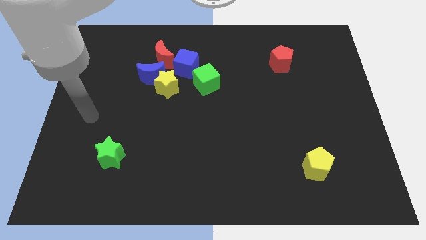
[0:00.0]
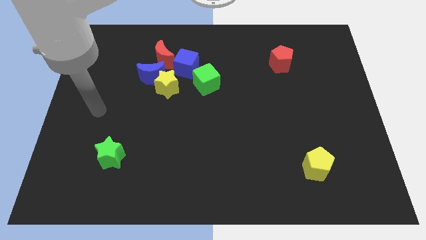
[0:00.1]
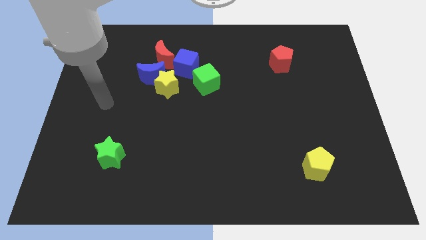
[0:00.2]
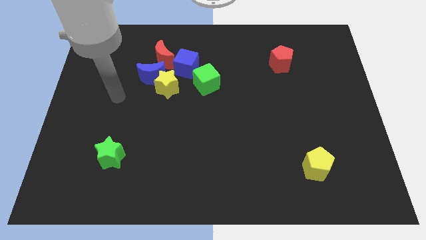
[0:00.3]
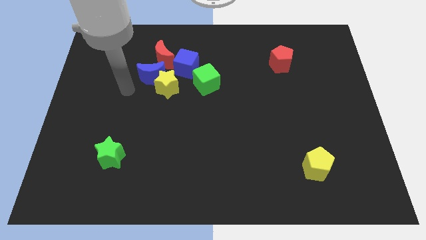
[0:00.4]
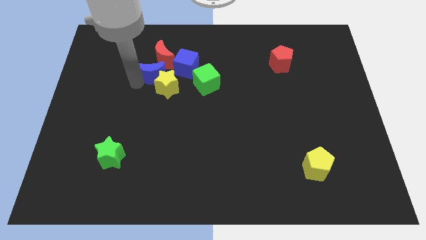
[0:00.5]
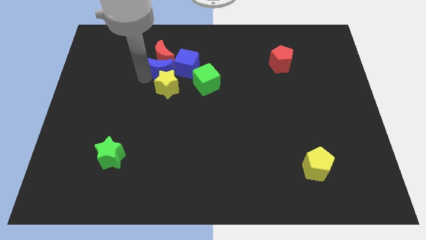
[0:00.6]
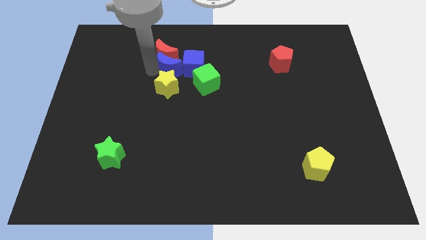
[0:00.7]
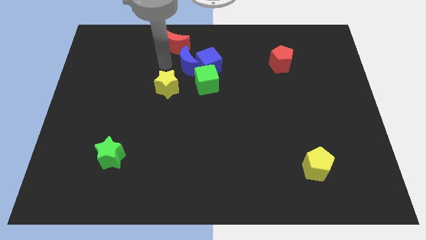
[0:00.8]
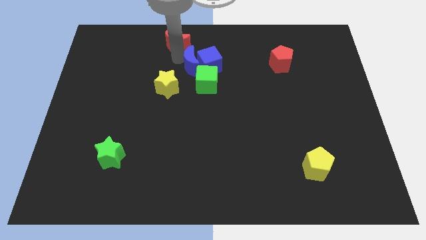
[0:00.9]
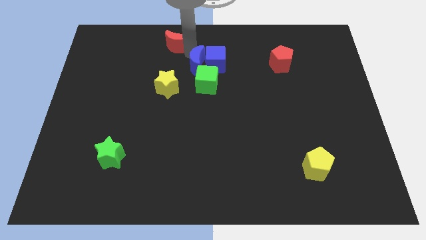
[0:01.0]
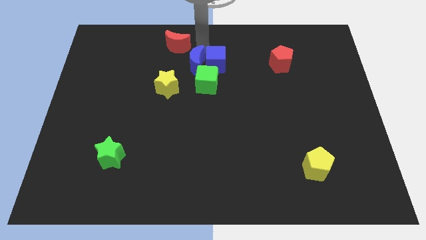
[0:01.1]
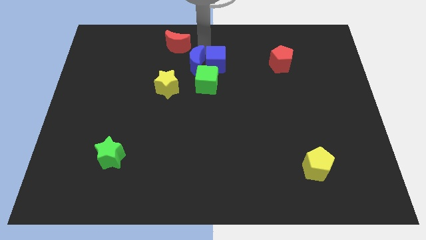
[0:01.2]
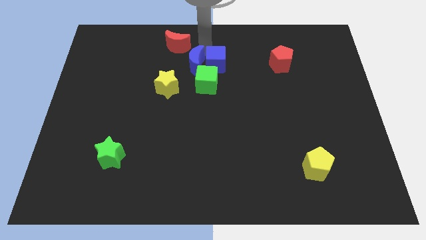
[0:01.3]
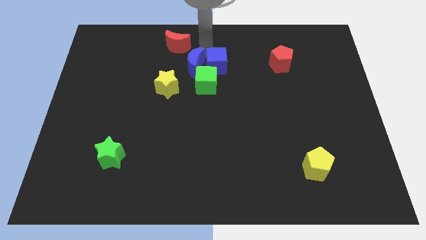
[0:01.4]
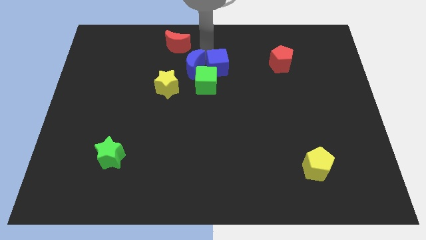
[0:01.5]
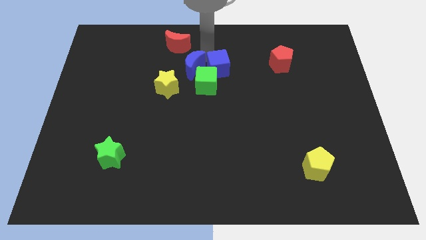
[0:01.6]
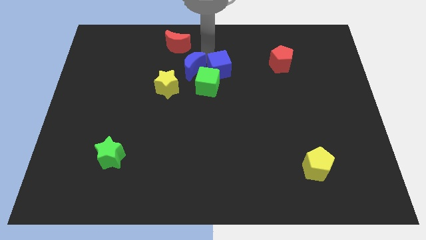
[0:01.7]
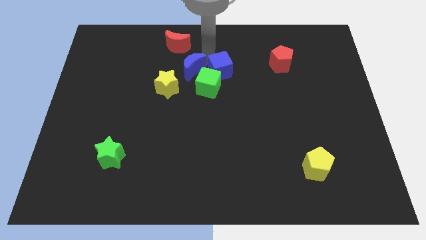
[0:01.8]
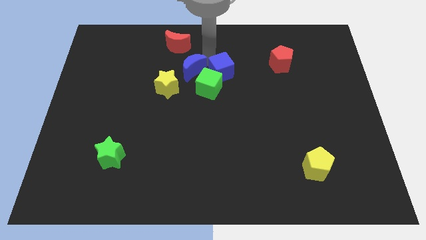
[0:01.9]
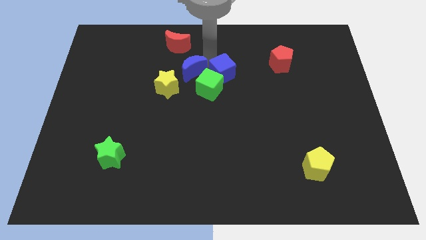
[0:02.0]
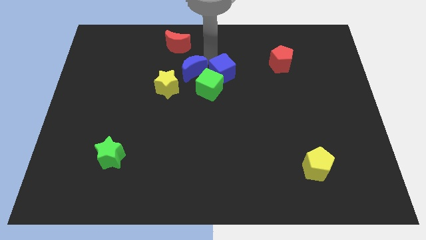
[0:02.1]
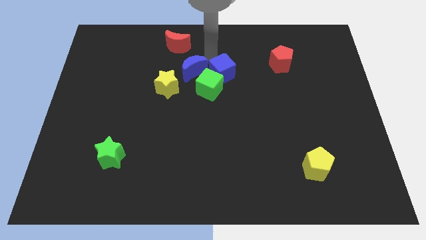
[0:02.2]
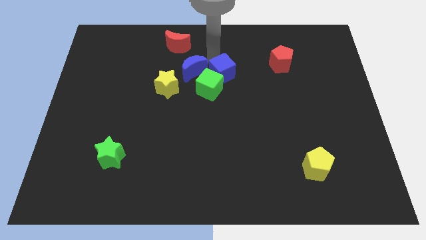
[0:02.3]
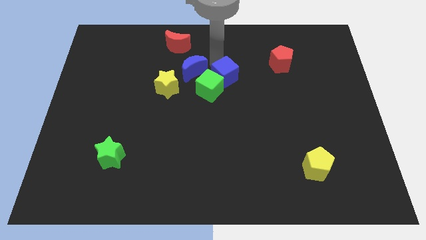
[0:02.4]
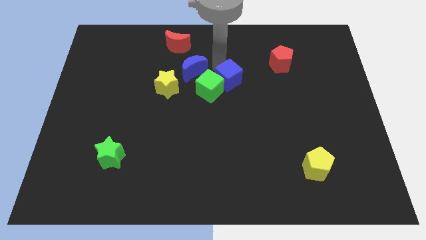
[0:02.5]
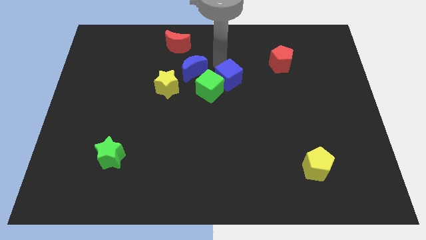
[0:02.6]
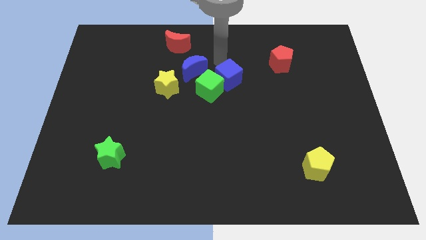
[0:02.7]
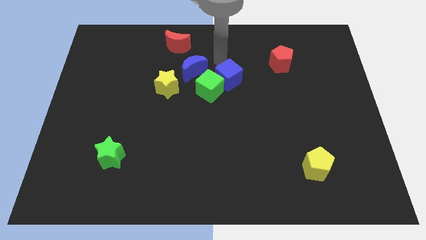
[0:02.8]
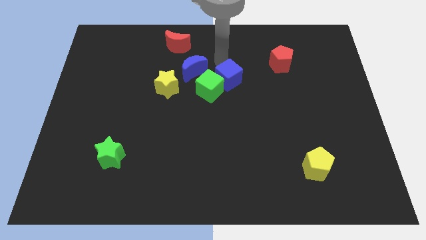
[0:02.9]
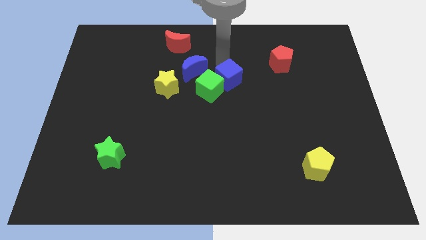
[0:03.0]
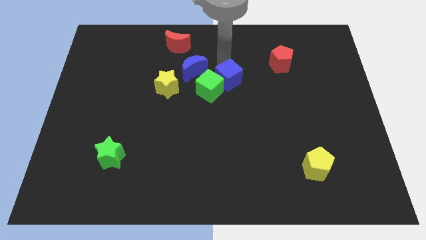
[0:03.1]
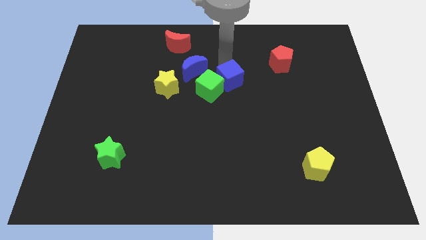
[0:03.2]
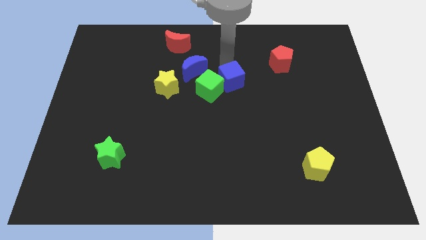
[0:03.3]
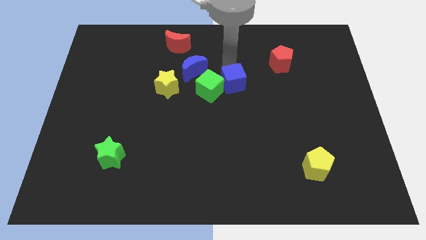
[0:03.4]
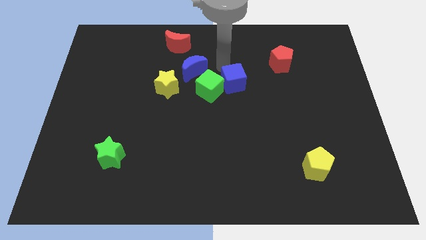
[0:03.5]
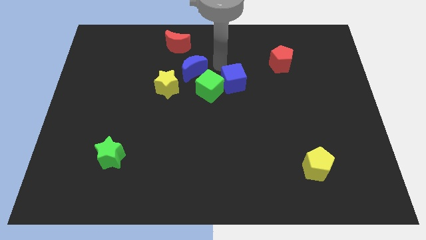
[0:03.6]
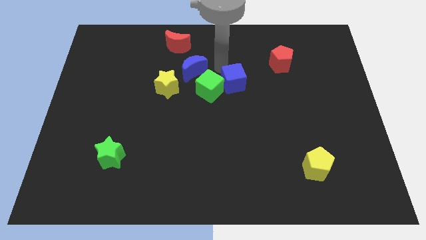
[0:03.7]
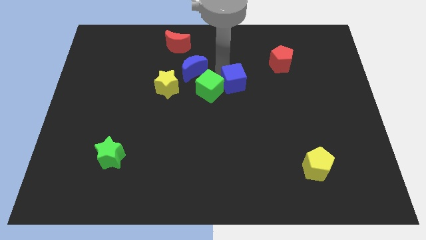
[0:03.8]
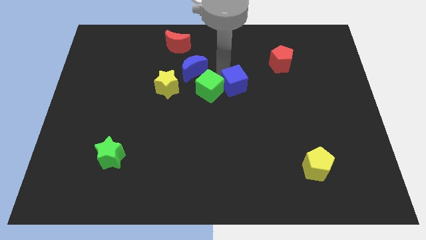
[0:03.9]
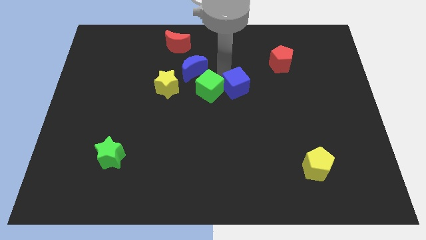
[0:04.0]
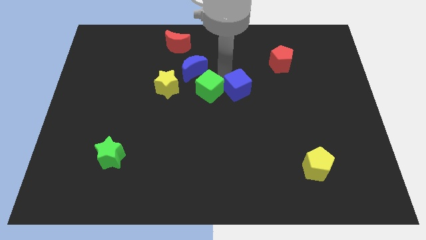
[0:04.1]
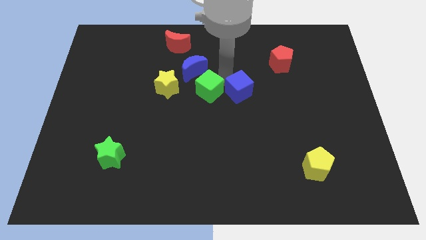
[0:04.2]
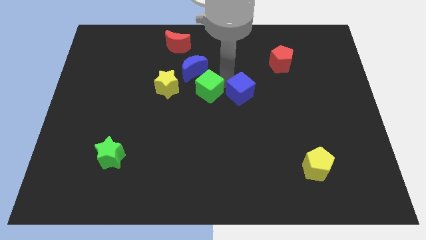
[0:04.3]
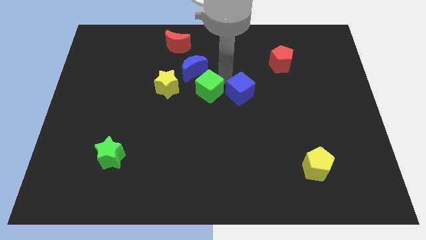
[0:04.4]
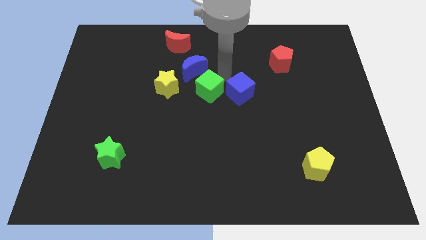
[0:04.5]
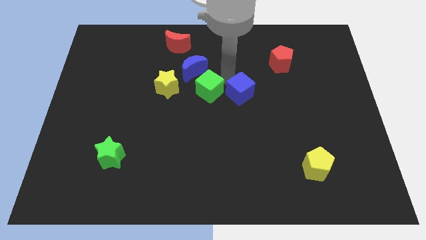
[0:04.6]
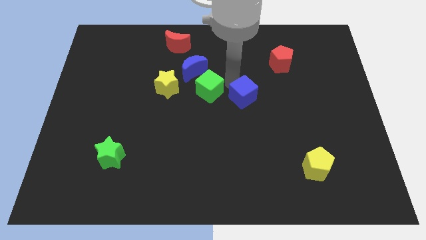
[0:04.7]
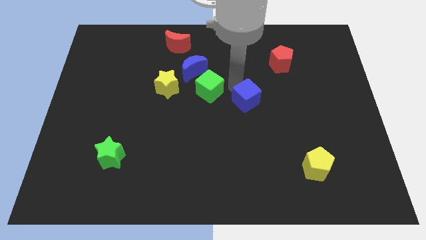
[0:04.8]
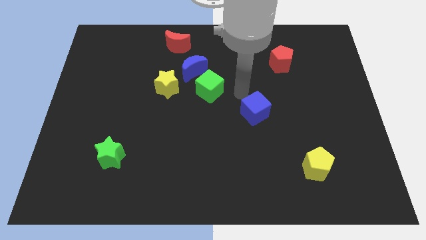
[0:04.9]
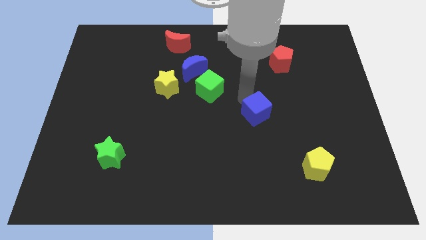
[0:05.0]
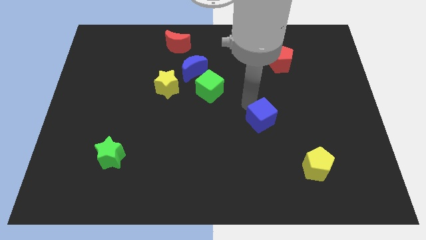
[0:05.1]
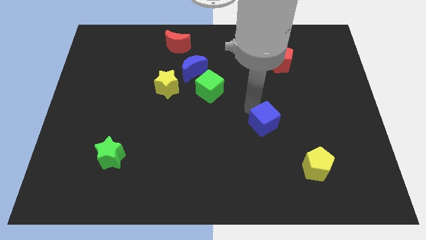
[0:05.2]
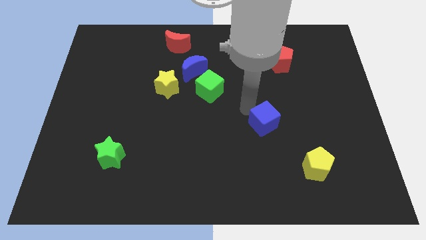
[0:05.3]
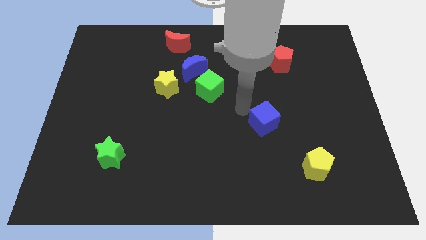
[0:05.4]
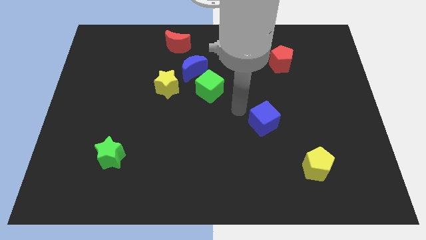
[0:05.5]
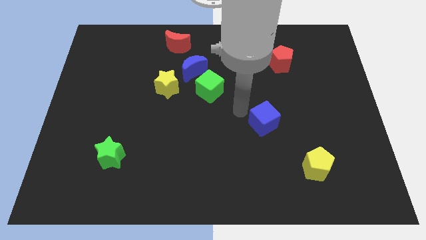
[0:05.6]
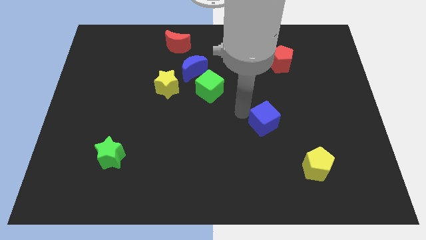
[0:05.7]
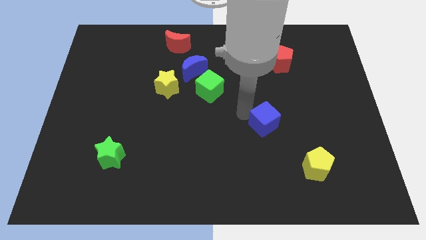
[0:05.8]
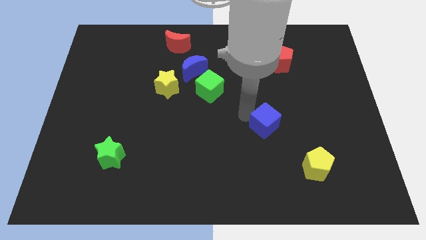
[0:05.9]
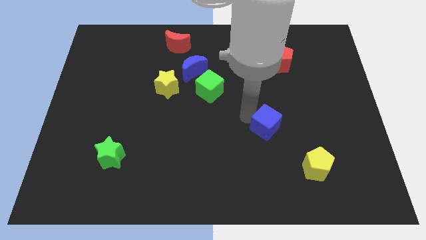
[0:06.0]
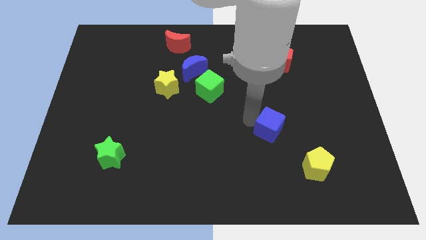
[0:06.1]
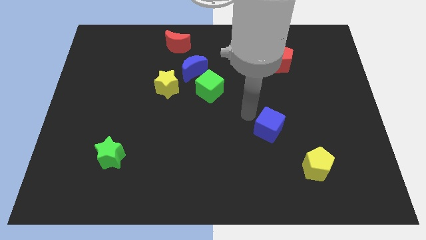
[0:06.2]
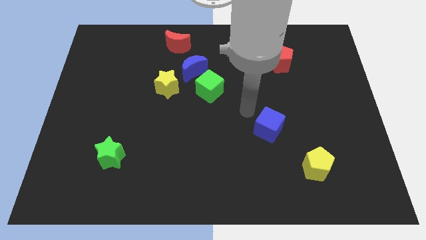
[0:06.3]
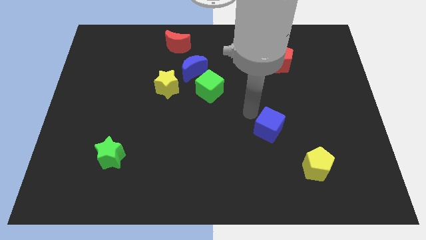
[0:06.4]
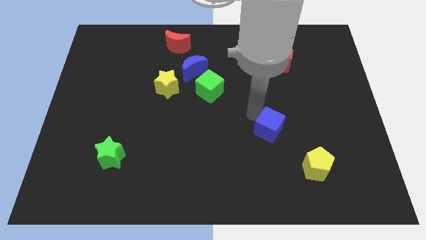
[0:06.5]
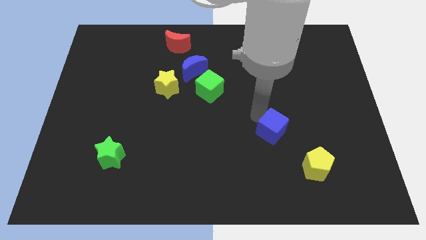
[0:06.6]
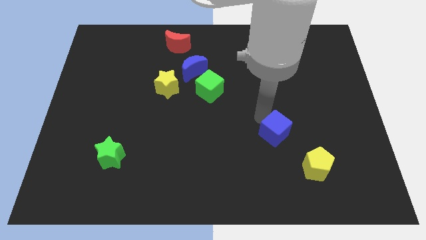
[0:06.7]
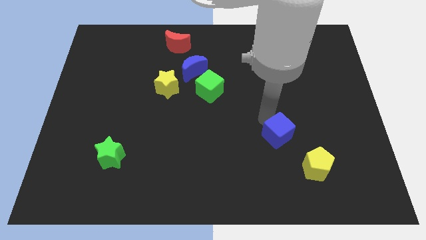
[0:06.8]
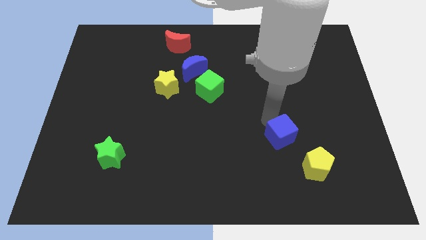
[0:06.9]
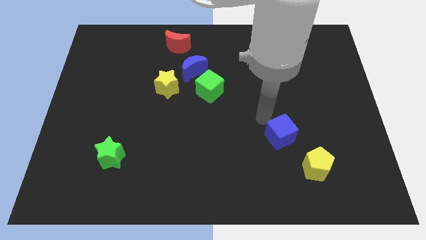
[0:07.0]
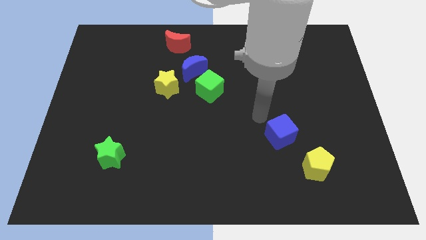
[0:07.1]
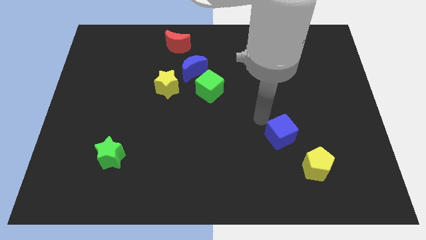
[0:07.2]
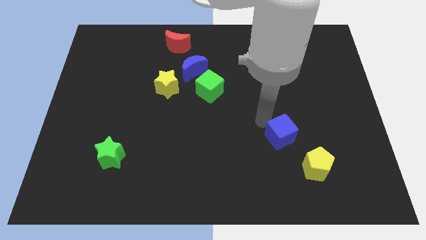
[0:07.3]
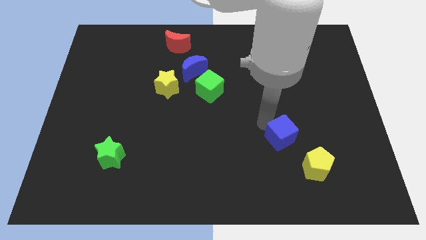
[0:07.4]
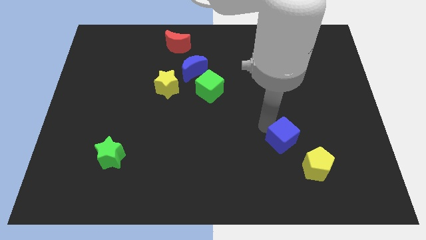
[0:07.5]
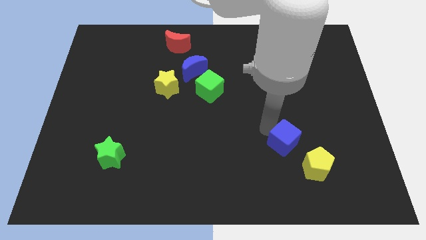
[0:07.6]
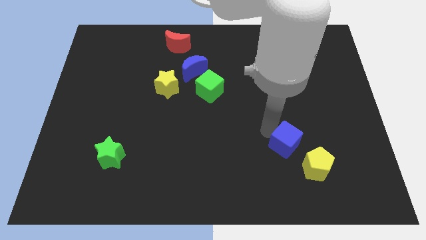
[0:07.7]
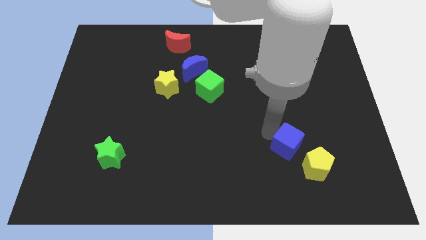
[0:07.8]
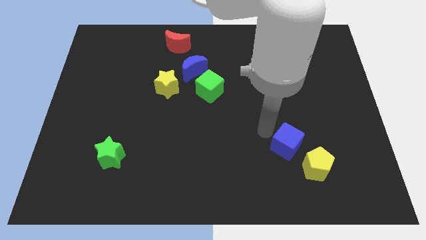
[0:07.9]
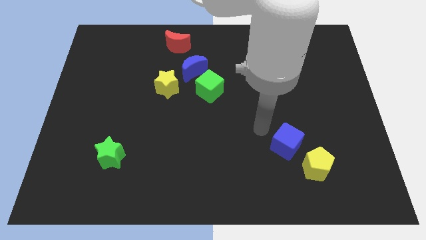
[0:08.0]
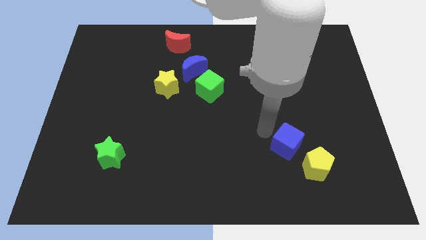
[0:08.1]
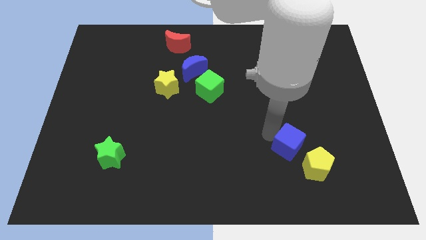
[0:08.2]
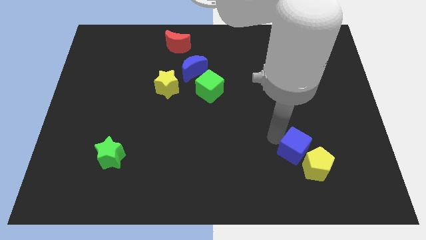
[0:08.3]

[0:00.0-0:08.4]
move the blue cube close to the yellow pentagon
